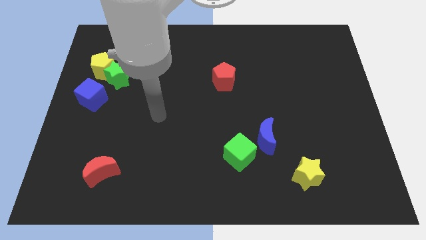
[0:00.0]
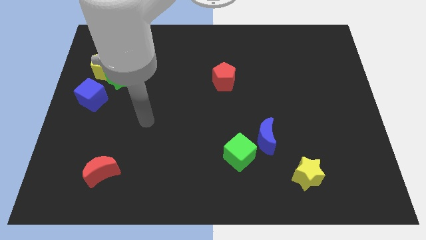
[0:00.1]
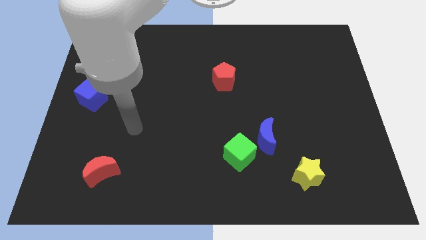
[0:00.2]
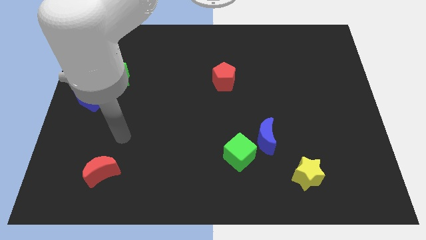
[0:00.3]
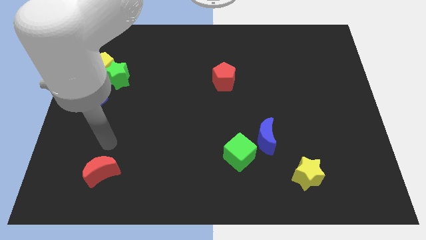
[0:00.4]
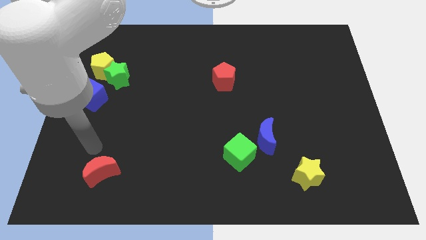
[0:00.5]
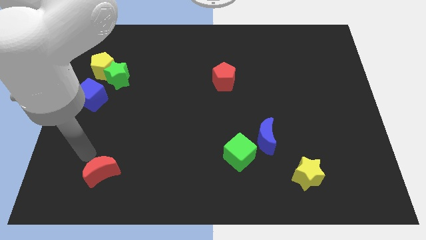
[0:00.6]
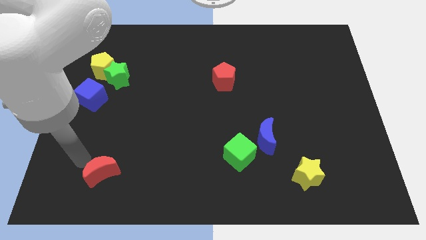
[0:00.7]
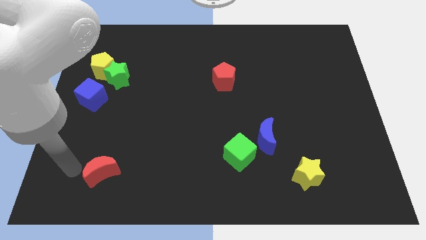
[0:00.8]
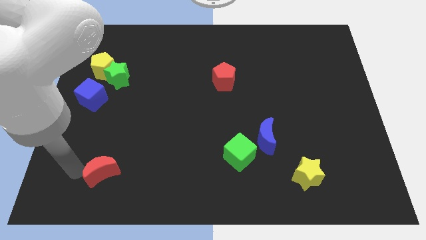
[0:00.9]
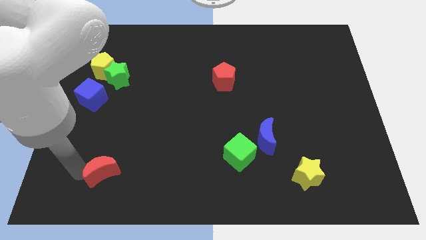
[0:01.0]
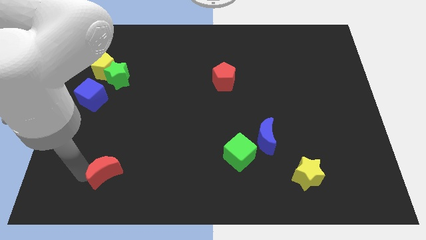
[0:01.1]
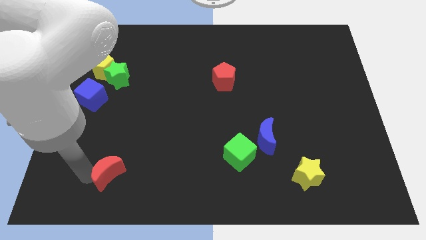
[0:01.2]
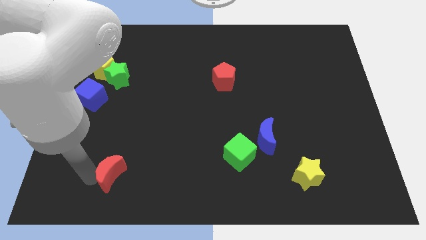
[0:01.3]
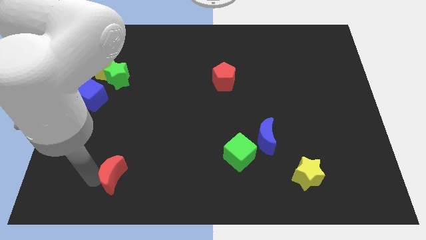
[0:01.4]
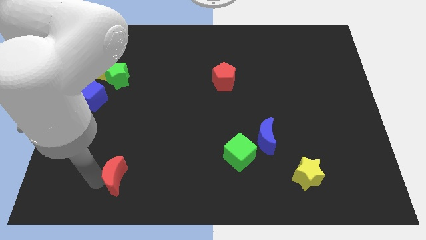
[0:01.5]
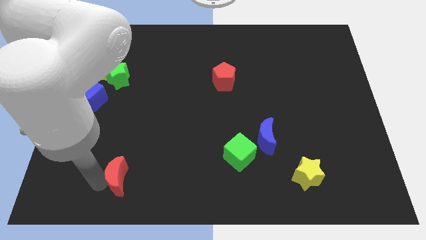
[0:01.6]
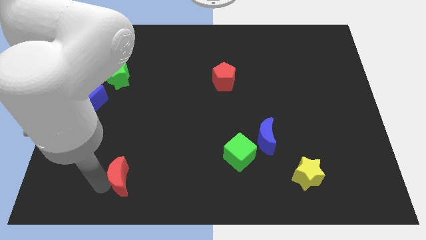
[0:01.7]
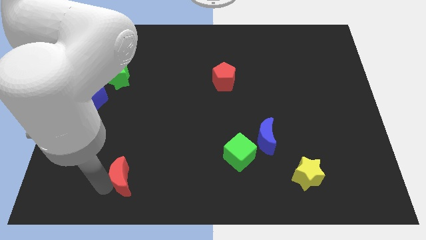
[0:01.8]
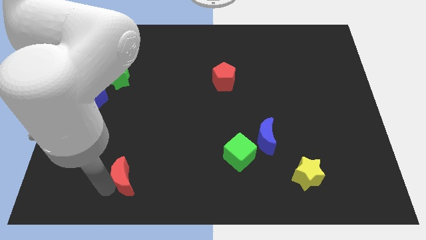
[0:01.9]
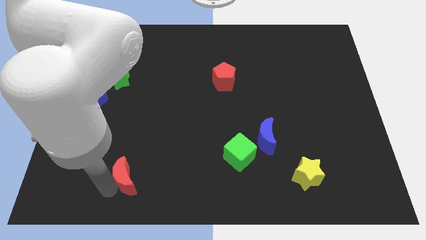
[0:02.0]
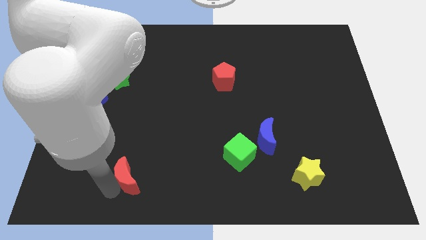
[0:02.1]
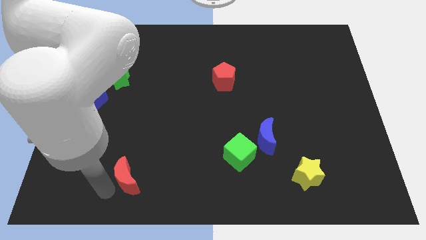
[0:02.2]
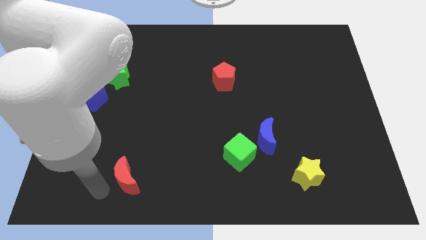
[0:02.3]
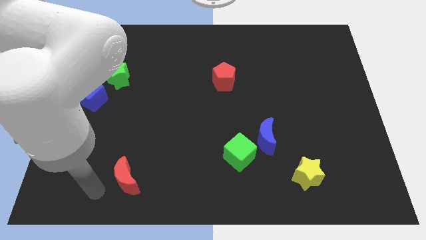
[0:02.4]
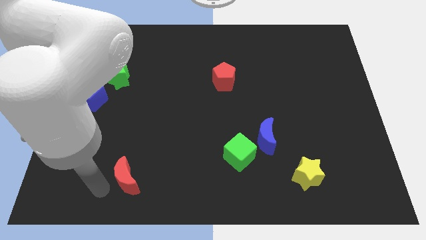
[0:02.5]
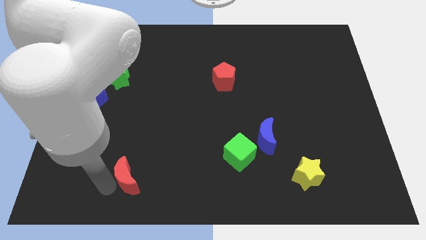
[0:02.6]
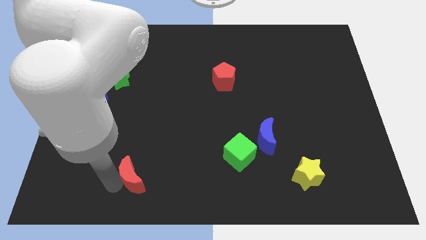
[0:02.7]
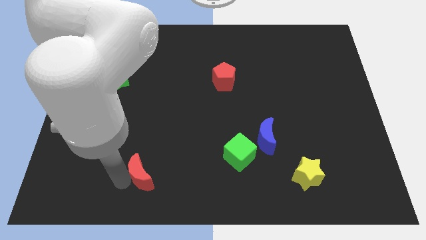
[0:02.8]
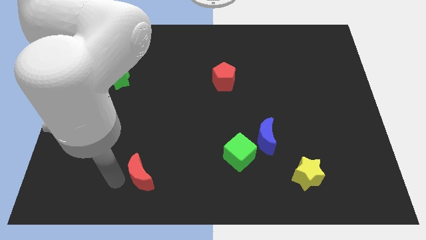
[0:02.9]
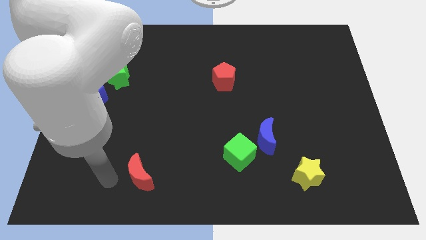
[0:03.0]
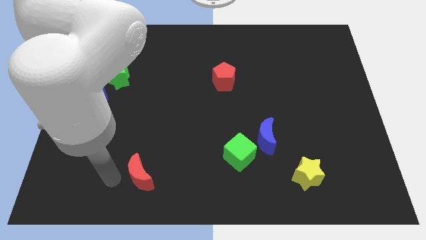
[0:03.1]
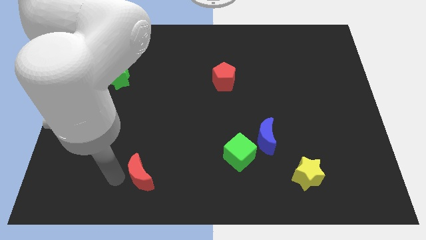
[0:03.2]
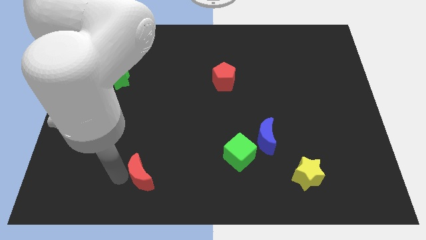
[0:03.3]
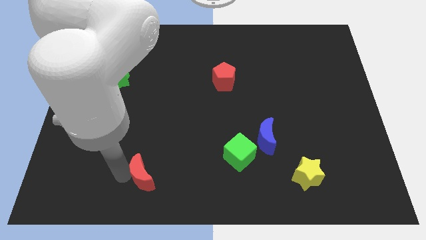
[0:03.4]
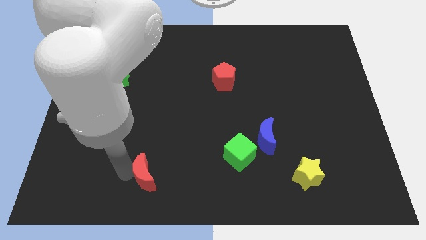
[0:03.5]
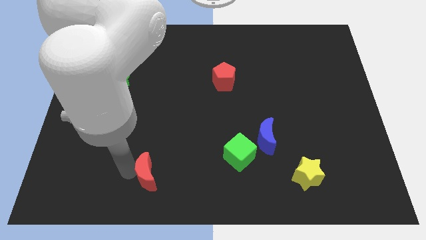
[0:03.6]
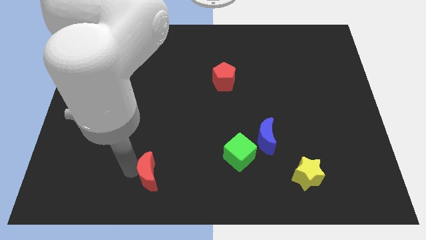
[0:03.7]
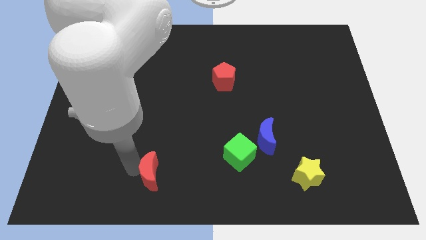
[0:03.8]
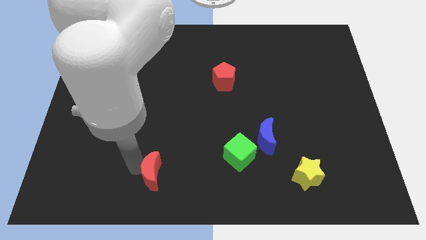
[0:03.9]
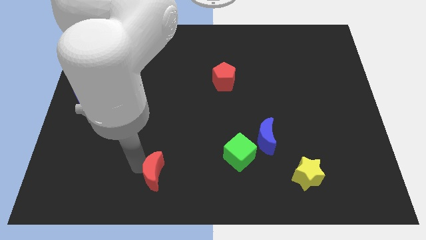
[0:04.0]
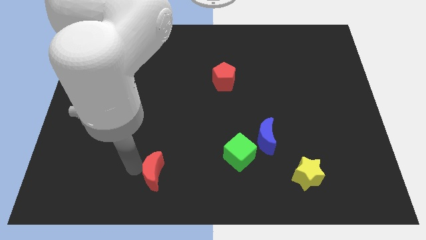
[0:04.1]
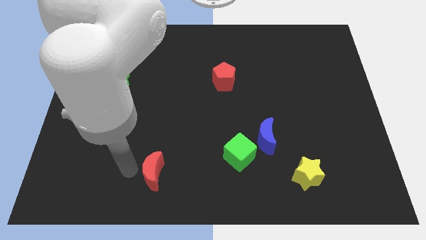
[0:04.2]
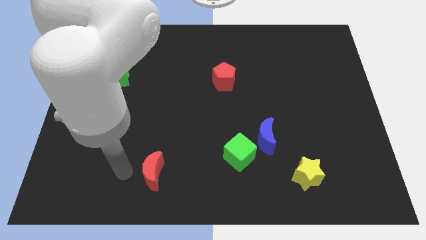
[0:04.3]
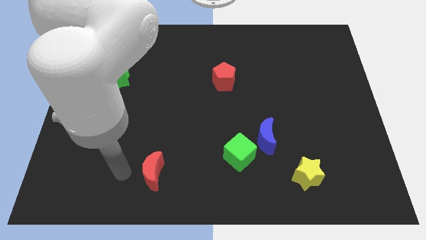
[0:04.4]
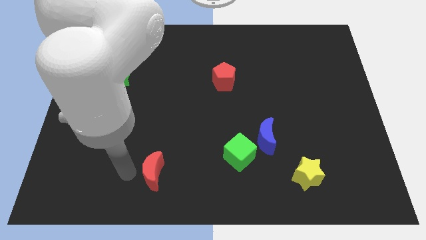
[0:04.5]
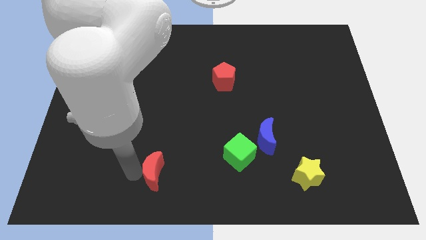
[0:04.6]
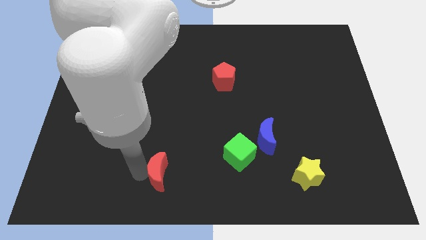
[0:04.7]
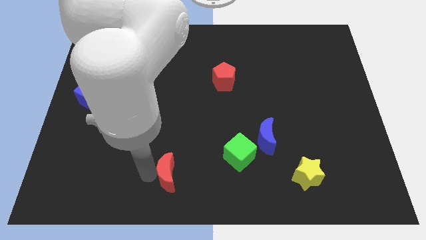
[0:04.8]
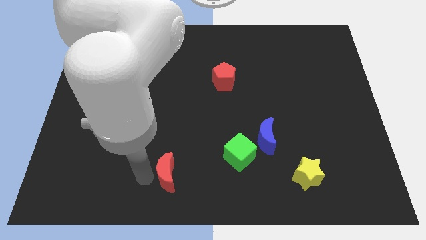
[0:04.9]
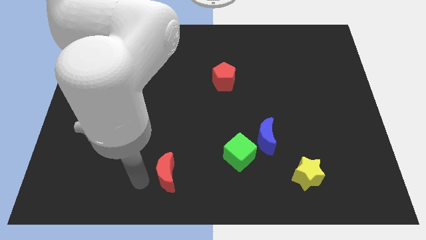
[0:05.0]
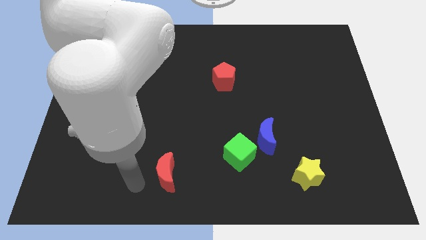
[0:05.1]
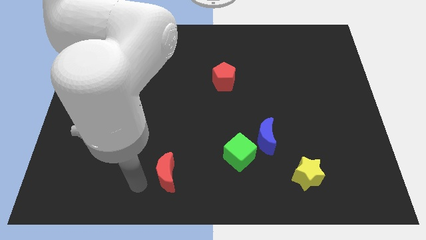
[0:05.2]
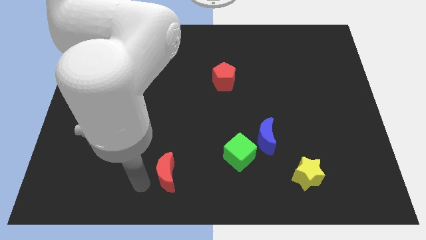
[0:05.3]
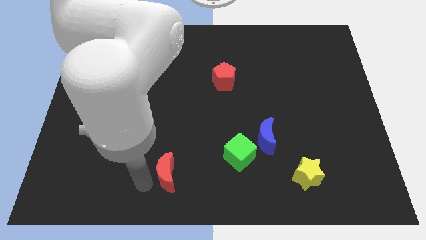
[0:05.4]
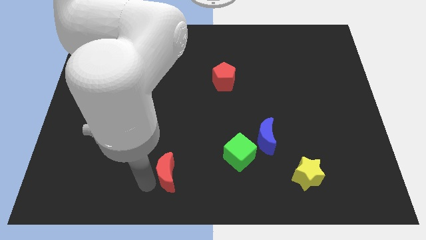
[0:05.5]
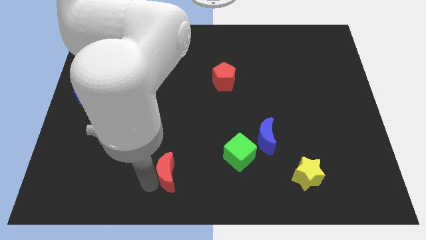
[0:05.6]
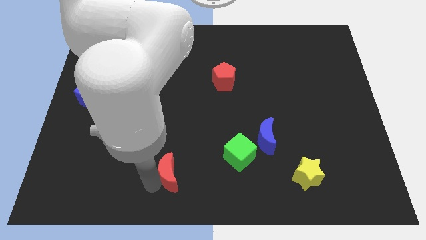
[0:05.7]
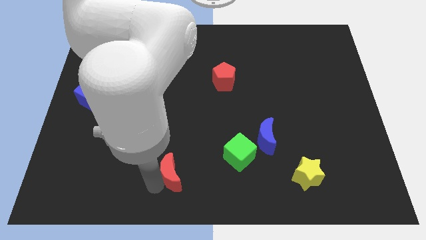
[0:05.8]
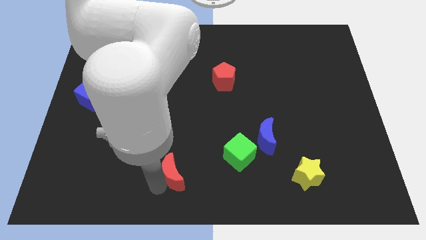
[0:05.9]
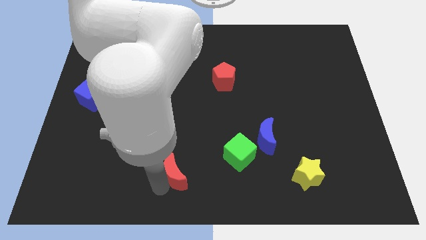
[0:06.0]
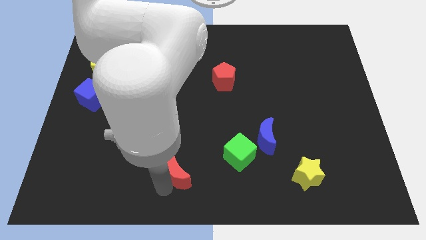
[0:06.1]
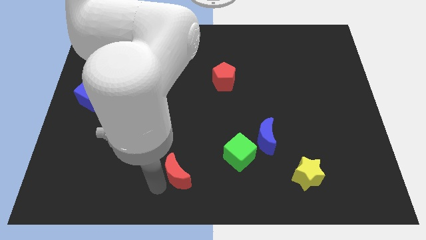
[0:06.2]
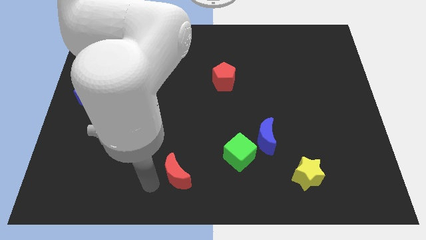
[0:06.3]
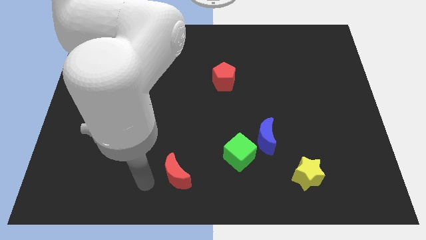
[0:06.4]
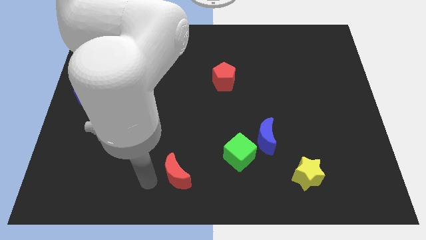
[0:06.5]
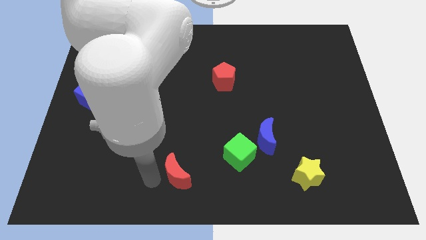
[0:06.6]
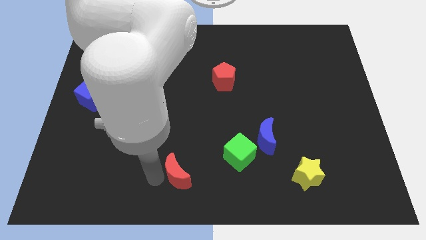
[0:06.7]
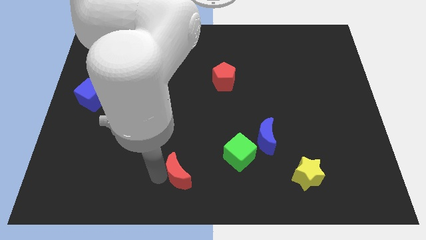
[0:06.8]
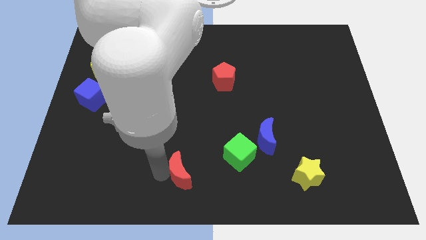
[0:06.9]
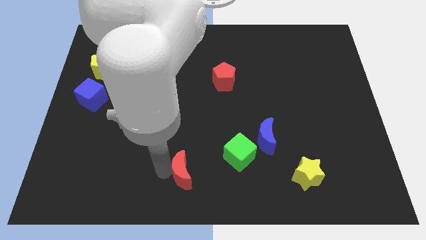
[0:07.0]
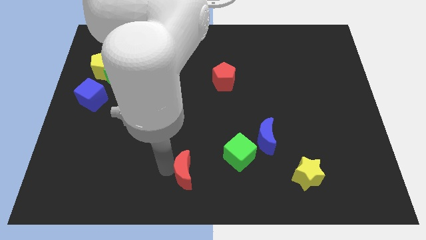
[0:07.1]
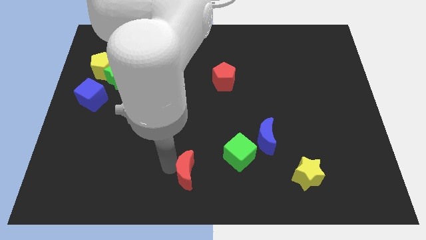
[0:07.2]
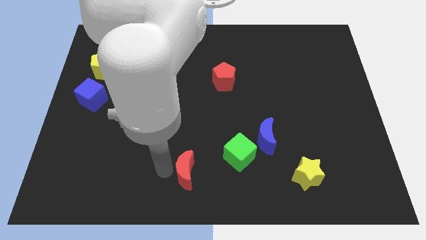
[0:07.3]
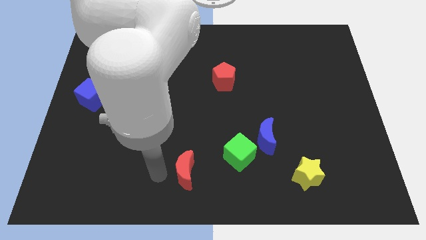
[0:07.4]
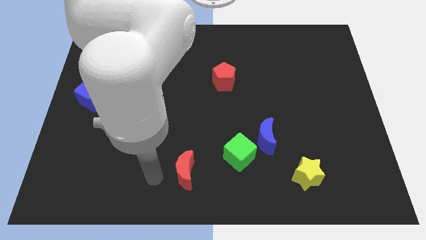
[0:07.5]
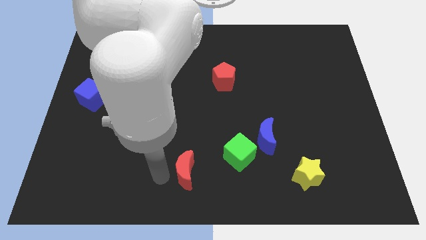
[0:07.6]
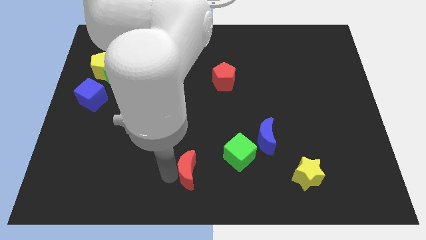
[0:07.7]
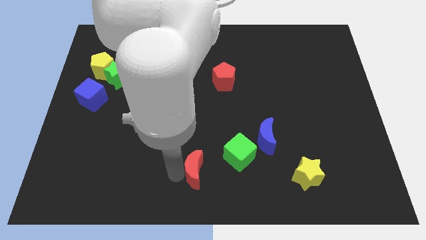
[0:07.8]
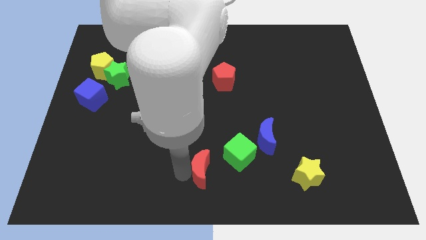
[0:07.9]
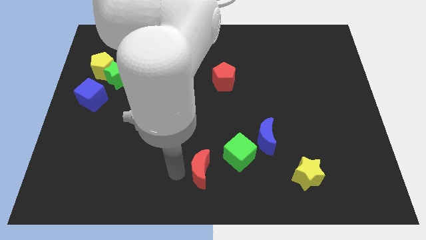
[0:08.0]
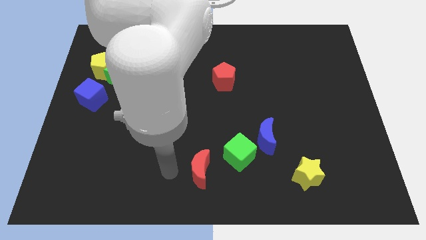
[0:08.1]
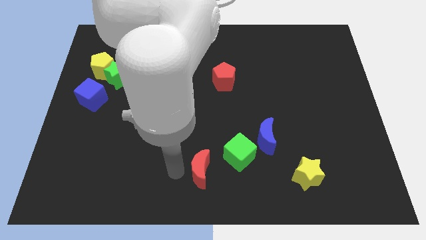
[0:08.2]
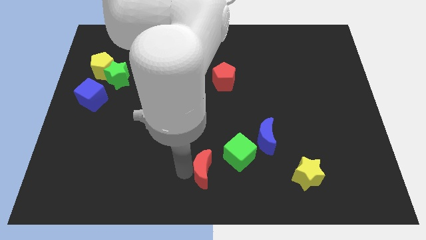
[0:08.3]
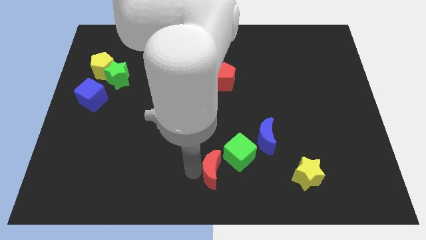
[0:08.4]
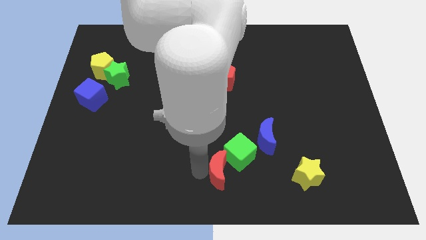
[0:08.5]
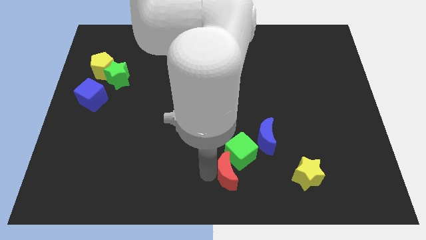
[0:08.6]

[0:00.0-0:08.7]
push the red moon diagonally down and to the left of the blue moon
